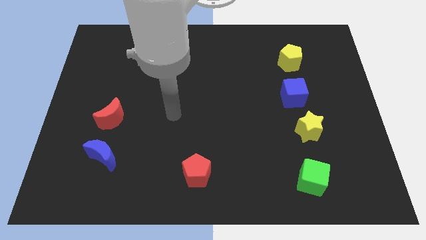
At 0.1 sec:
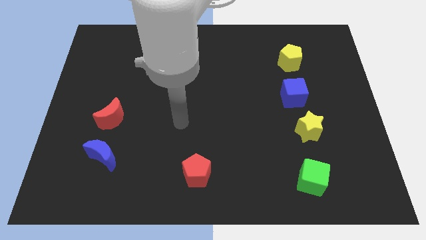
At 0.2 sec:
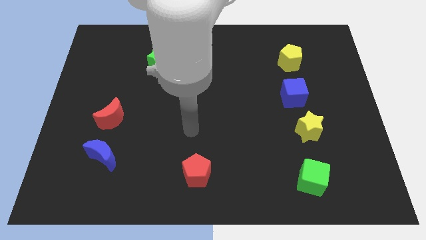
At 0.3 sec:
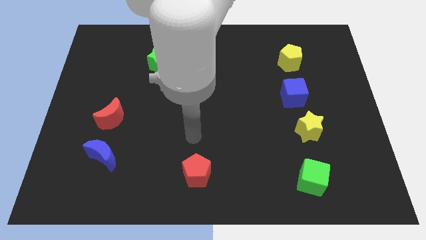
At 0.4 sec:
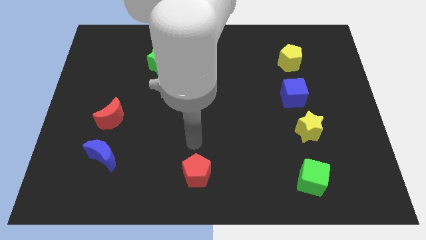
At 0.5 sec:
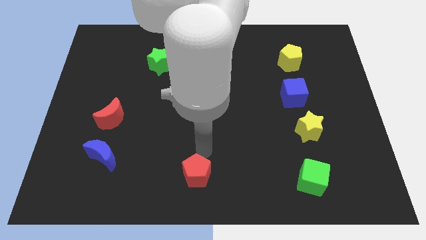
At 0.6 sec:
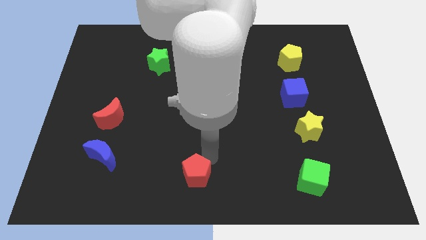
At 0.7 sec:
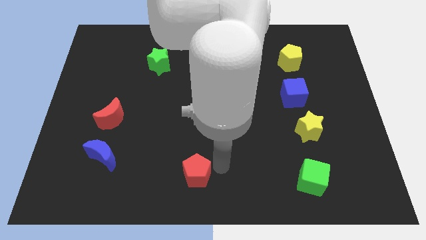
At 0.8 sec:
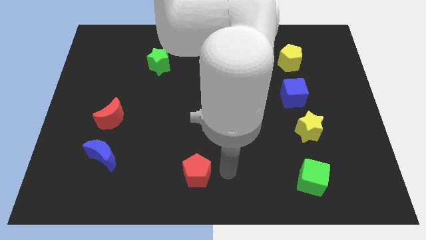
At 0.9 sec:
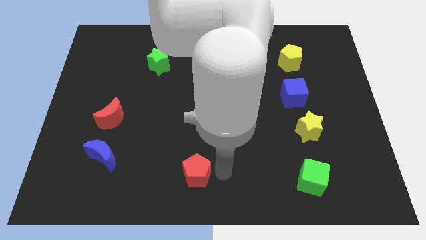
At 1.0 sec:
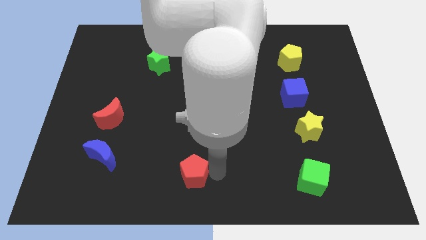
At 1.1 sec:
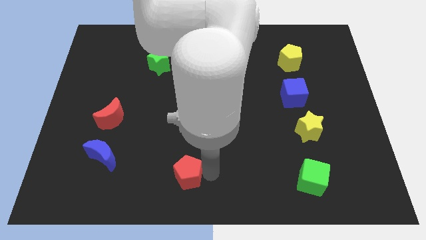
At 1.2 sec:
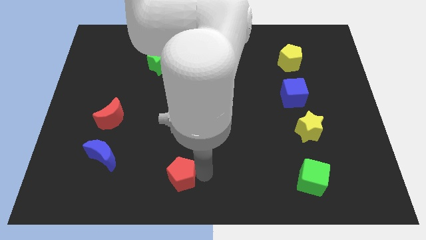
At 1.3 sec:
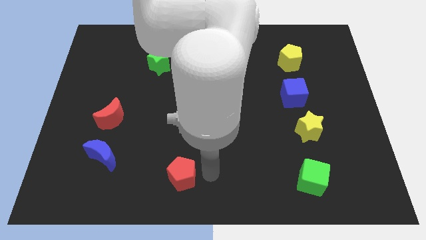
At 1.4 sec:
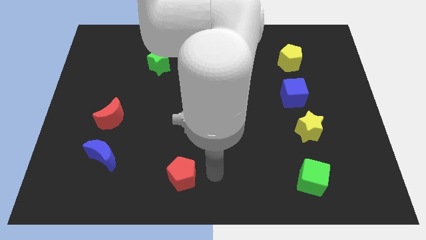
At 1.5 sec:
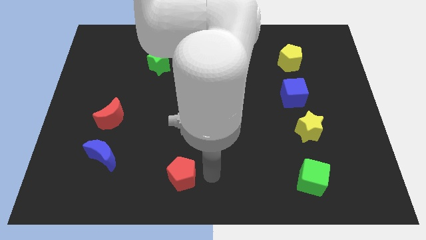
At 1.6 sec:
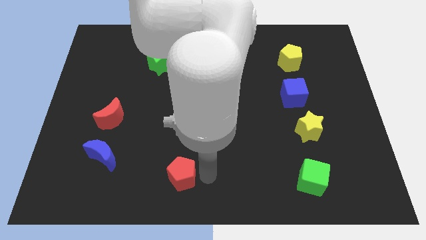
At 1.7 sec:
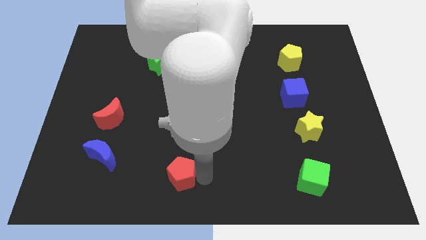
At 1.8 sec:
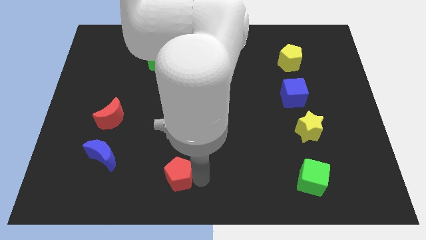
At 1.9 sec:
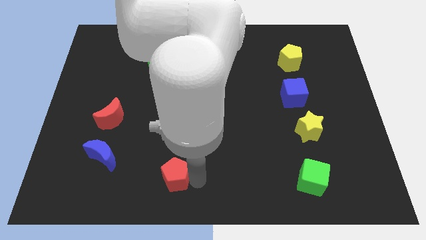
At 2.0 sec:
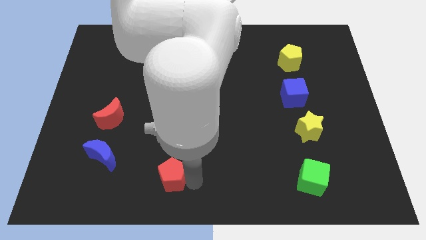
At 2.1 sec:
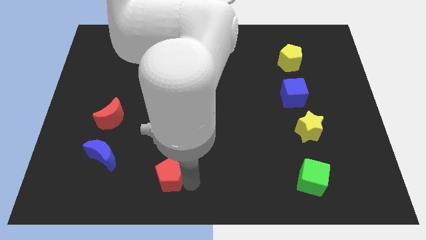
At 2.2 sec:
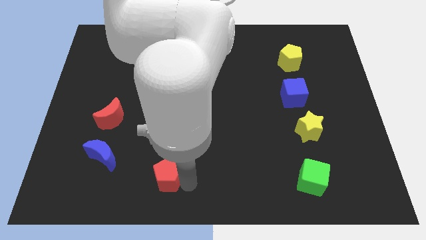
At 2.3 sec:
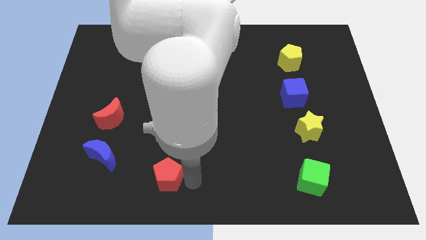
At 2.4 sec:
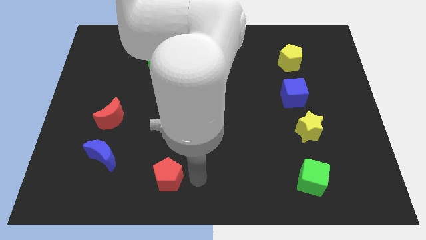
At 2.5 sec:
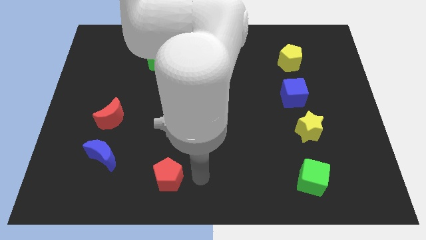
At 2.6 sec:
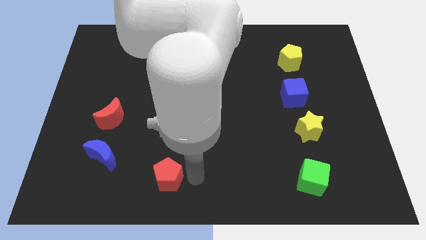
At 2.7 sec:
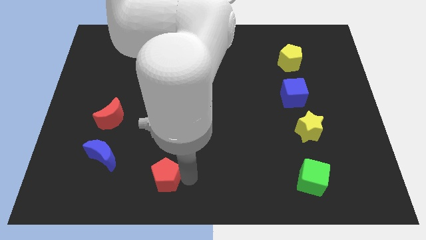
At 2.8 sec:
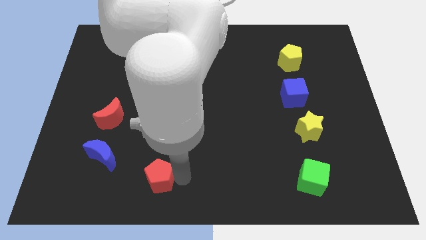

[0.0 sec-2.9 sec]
push the red pentagon left somewhat

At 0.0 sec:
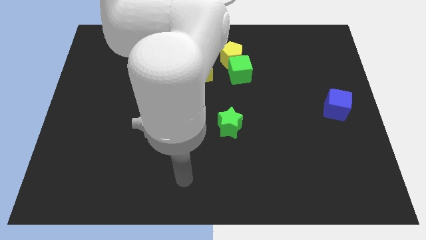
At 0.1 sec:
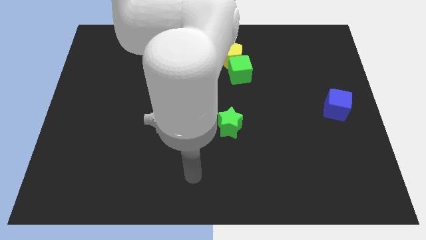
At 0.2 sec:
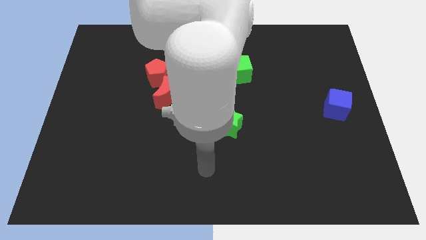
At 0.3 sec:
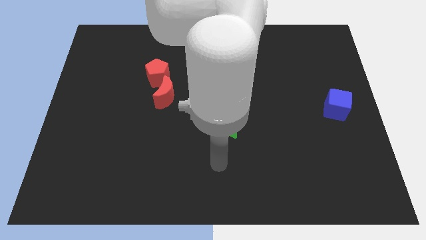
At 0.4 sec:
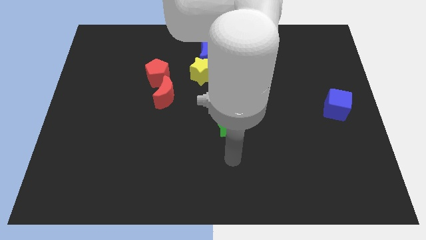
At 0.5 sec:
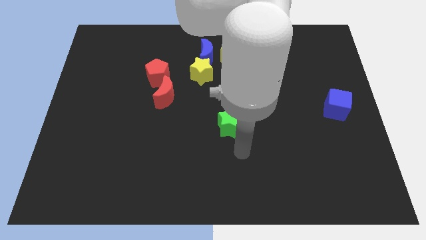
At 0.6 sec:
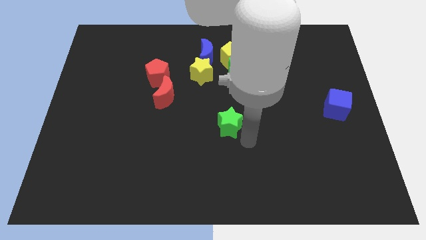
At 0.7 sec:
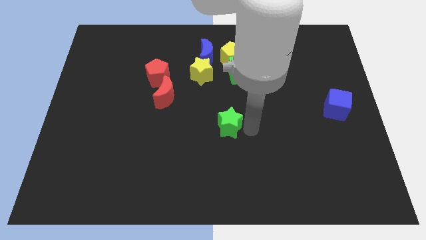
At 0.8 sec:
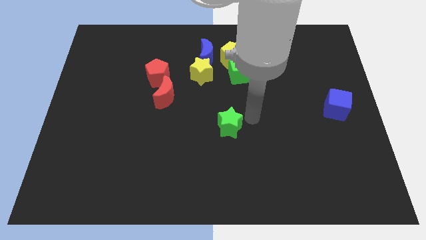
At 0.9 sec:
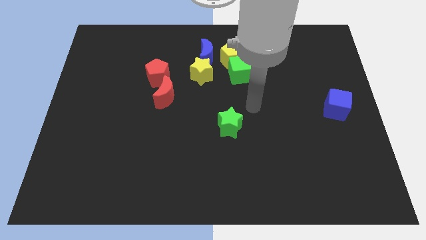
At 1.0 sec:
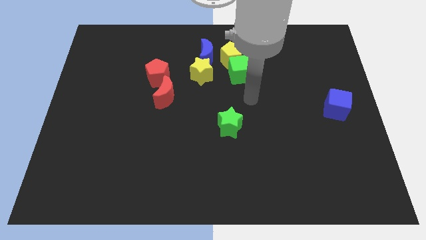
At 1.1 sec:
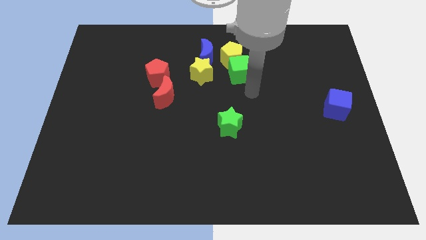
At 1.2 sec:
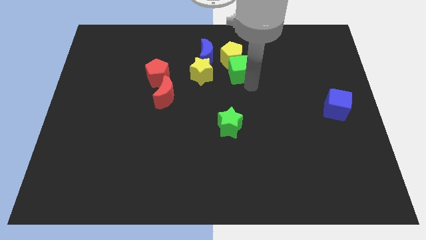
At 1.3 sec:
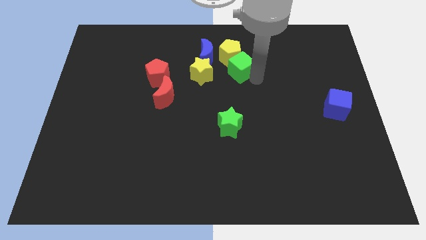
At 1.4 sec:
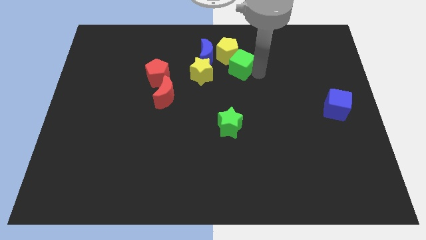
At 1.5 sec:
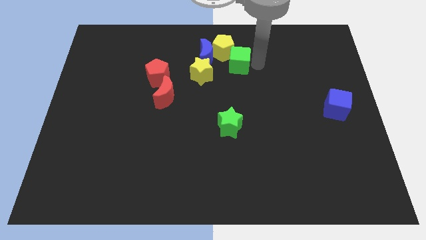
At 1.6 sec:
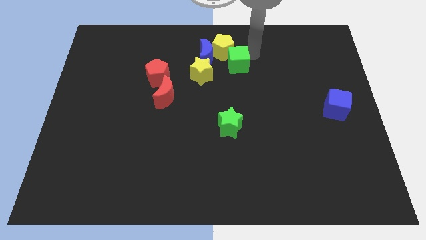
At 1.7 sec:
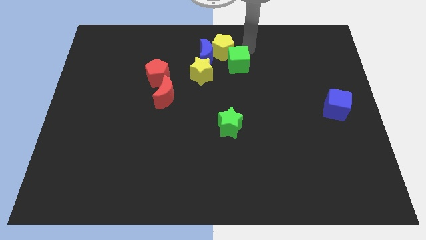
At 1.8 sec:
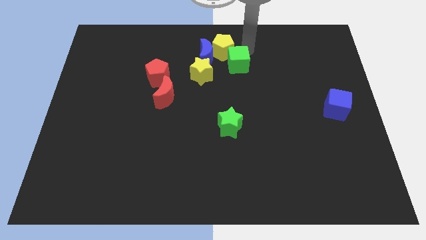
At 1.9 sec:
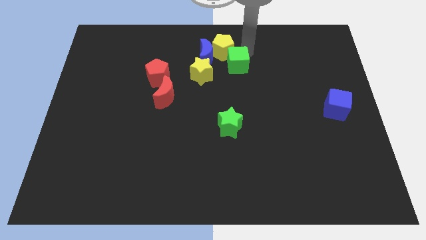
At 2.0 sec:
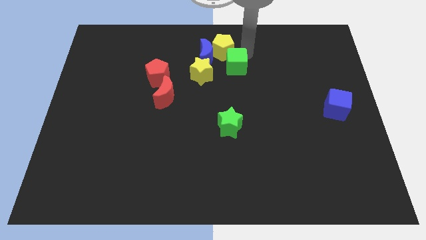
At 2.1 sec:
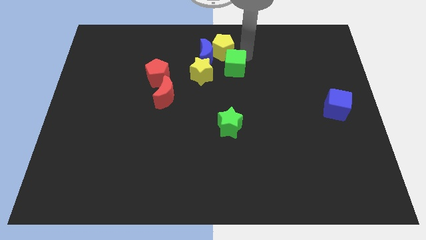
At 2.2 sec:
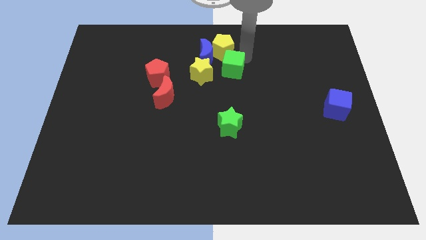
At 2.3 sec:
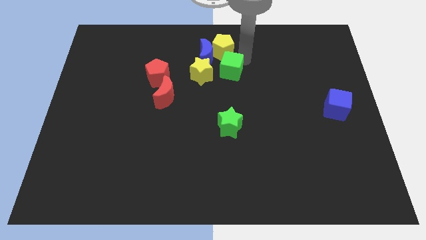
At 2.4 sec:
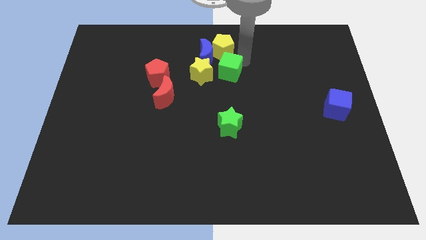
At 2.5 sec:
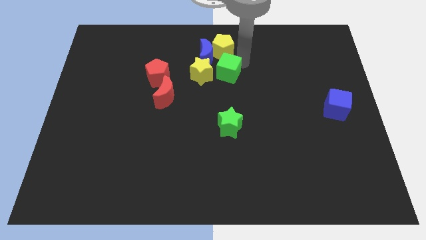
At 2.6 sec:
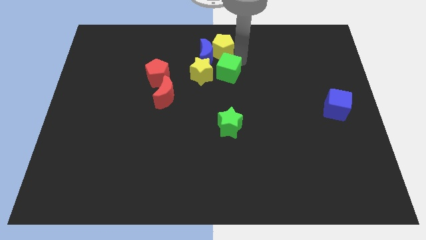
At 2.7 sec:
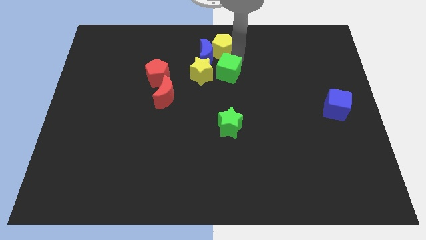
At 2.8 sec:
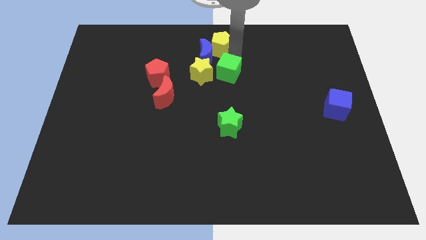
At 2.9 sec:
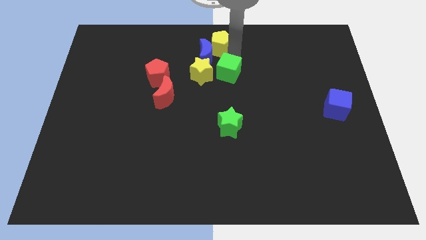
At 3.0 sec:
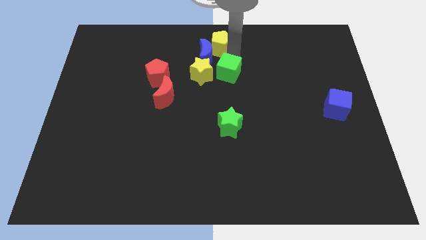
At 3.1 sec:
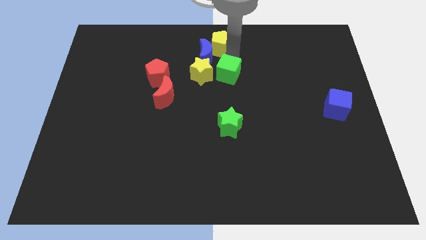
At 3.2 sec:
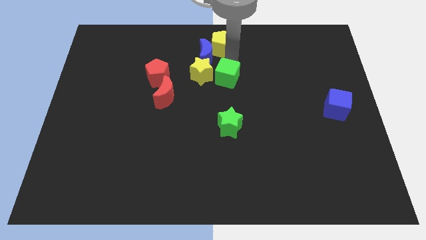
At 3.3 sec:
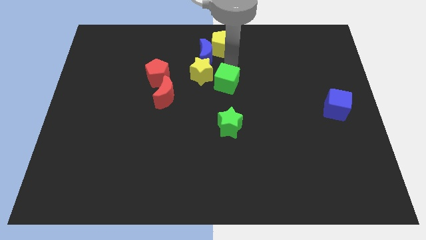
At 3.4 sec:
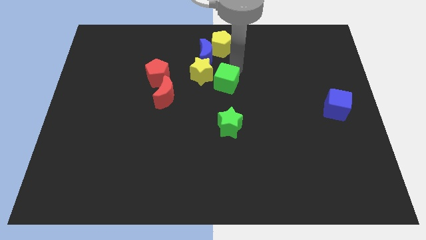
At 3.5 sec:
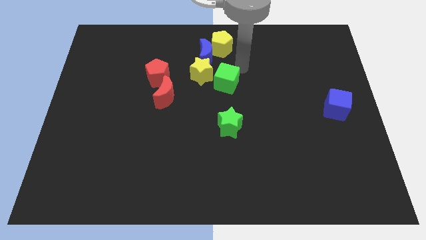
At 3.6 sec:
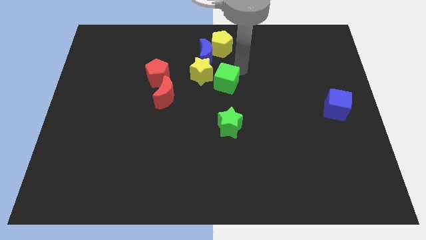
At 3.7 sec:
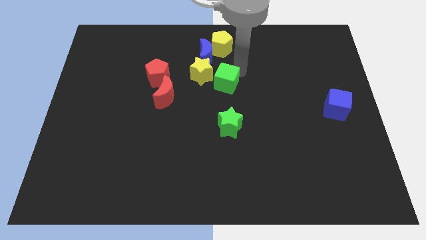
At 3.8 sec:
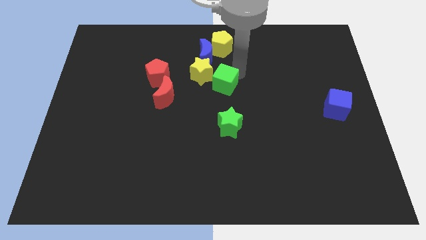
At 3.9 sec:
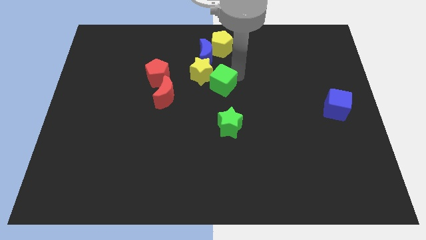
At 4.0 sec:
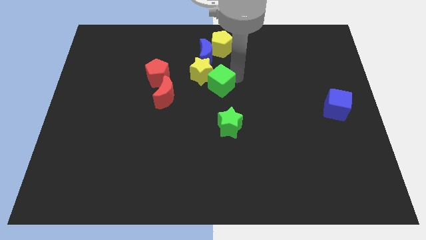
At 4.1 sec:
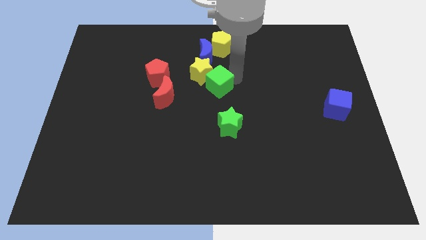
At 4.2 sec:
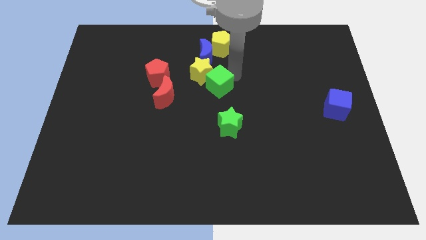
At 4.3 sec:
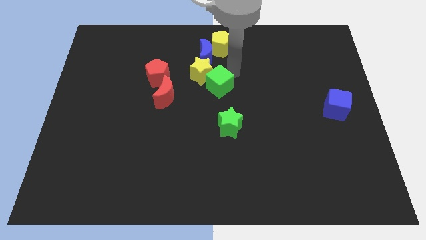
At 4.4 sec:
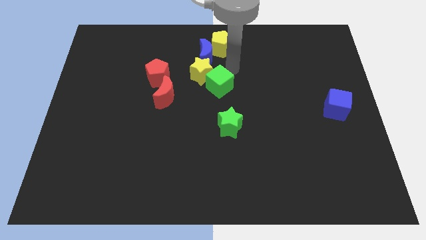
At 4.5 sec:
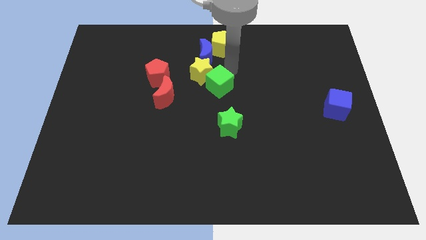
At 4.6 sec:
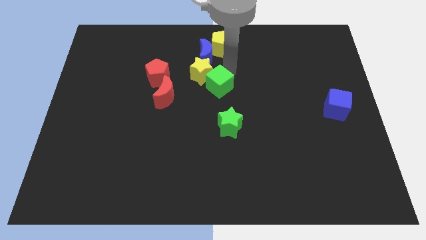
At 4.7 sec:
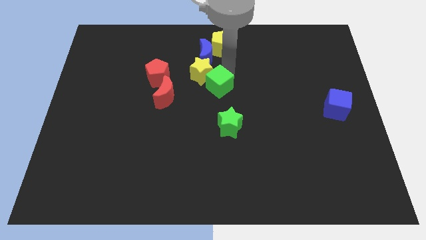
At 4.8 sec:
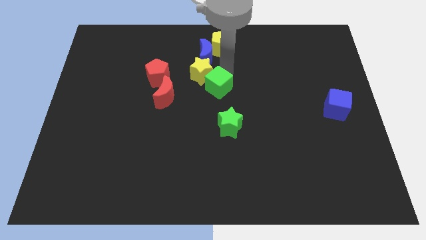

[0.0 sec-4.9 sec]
move the green cube somewhat down and then left

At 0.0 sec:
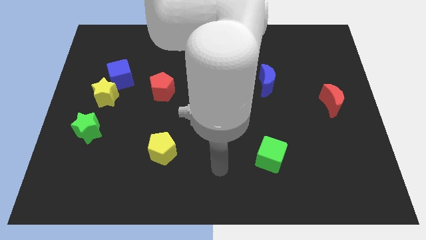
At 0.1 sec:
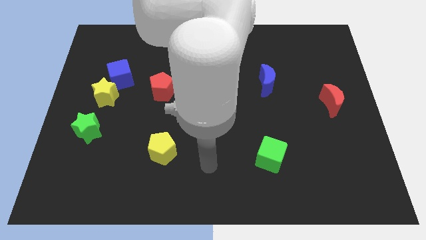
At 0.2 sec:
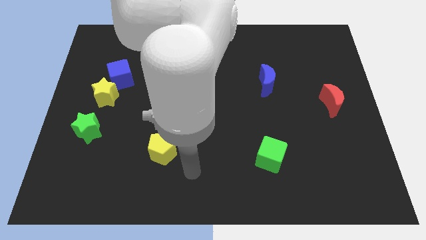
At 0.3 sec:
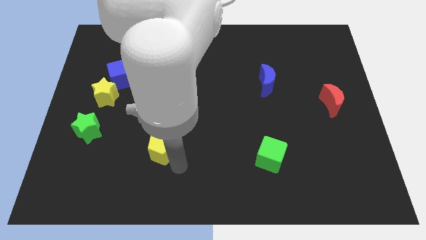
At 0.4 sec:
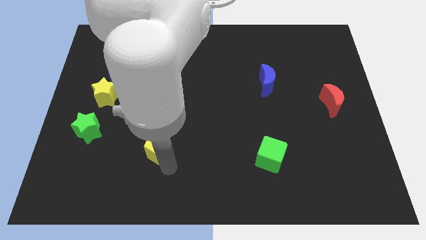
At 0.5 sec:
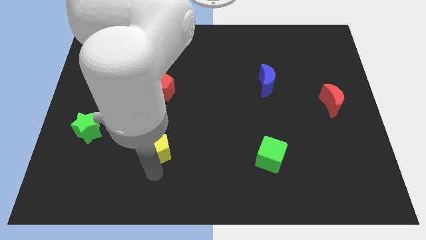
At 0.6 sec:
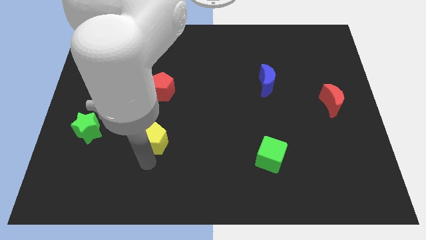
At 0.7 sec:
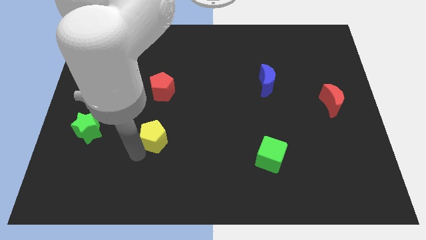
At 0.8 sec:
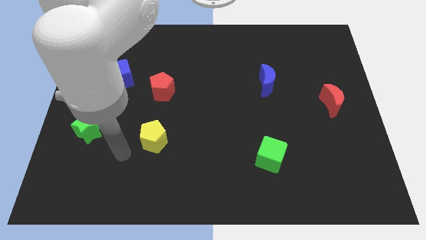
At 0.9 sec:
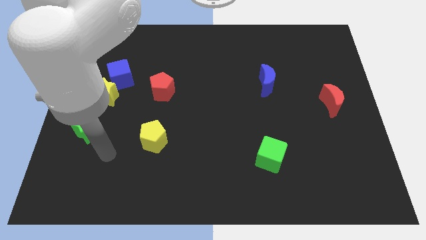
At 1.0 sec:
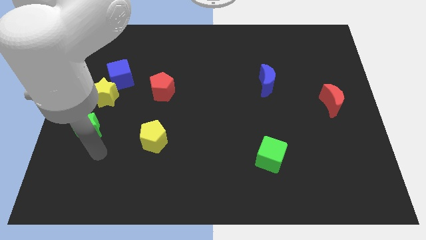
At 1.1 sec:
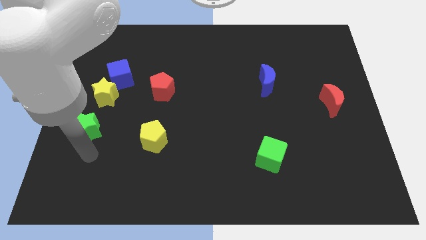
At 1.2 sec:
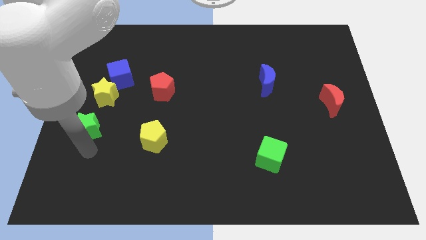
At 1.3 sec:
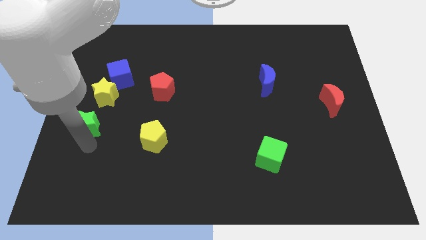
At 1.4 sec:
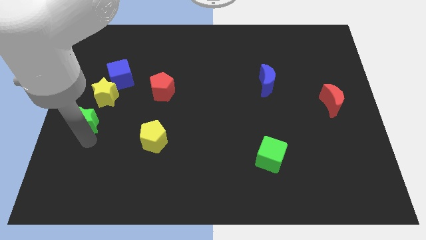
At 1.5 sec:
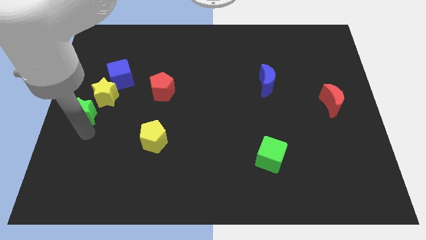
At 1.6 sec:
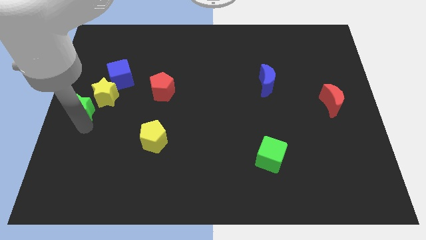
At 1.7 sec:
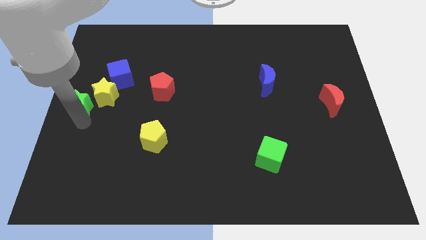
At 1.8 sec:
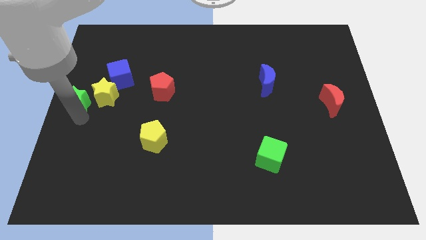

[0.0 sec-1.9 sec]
move the green star slightly up
